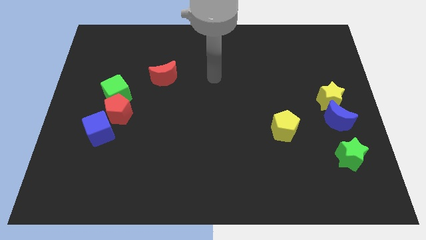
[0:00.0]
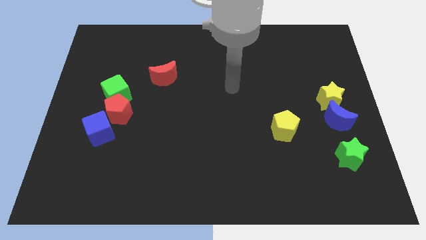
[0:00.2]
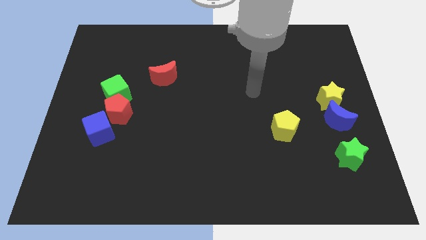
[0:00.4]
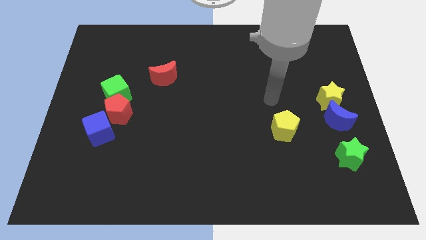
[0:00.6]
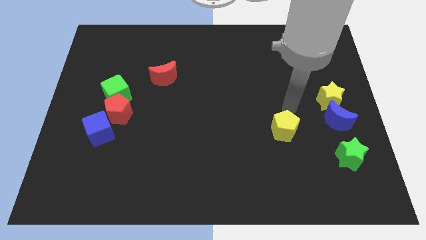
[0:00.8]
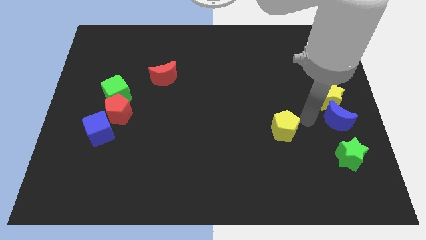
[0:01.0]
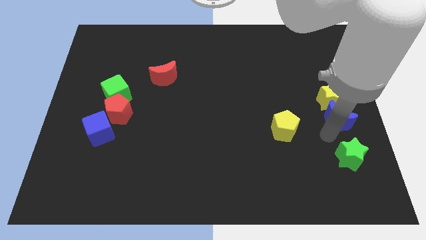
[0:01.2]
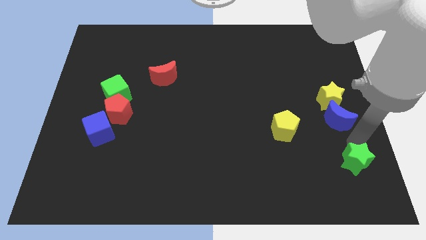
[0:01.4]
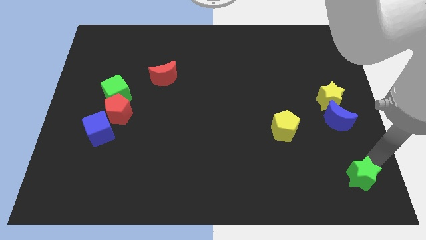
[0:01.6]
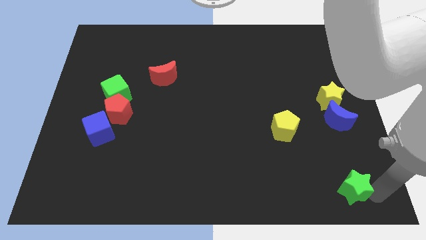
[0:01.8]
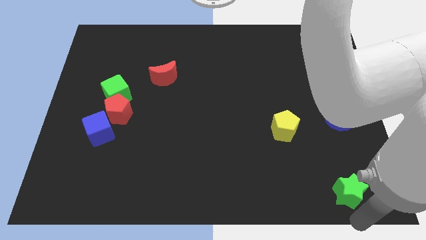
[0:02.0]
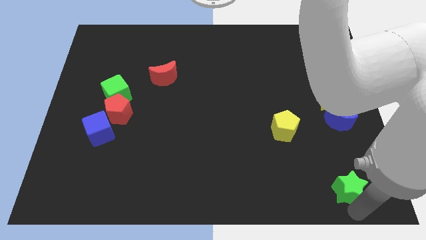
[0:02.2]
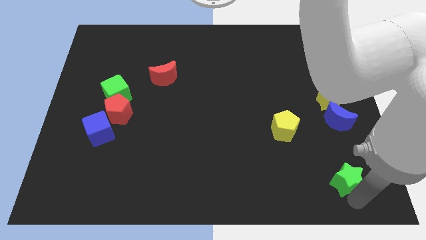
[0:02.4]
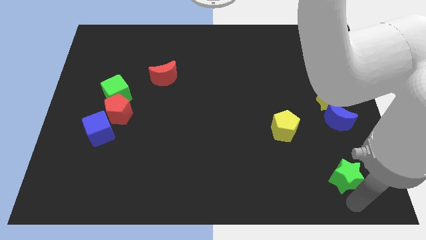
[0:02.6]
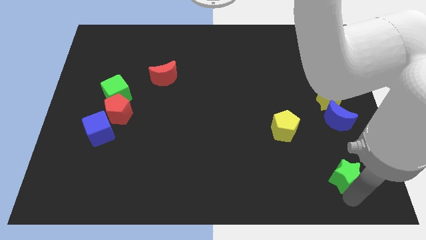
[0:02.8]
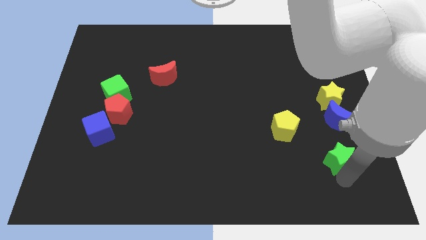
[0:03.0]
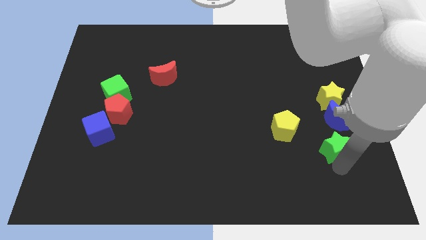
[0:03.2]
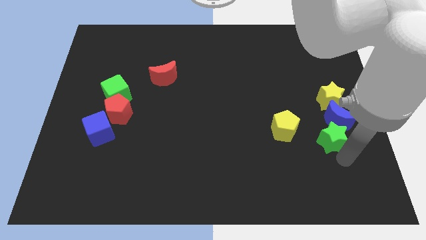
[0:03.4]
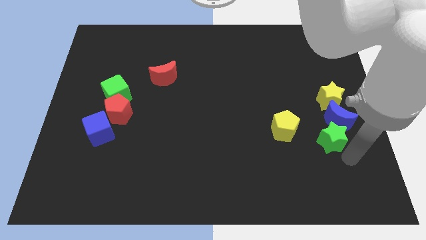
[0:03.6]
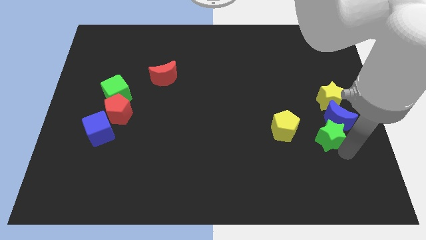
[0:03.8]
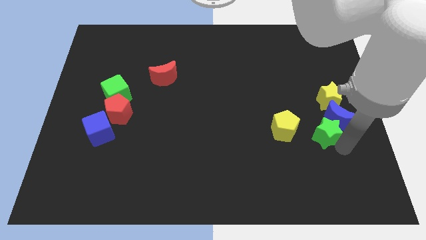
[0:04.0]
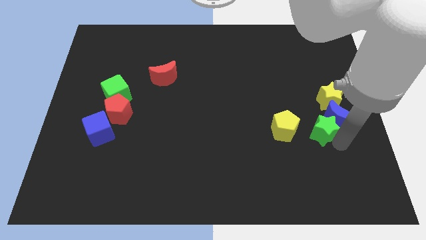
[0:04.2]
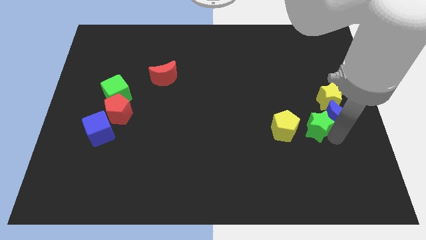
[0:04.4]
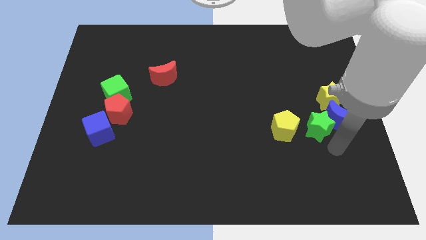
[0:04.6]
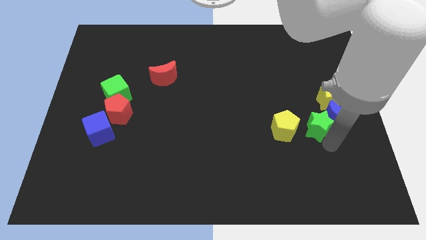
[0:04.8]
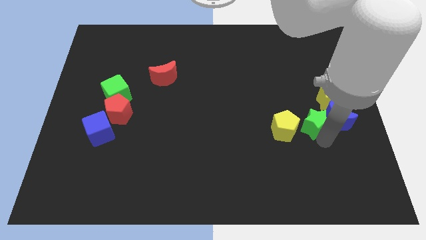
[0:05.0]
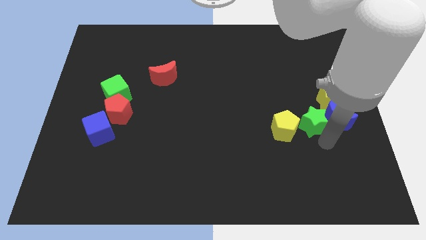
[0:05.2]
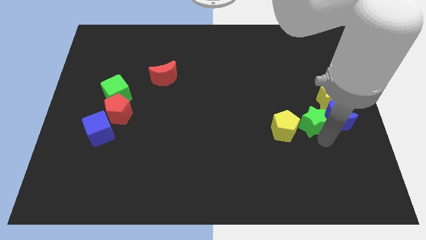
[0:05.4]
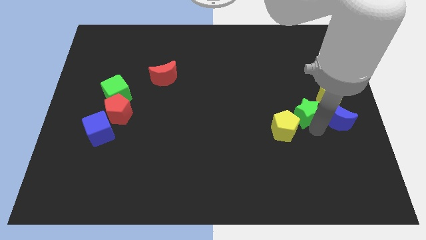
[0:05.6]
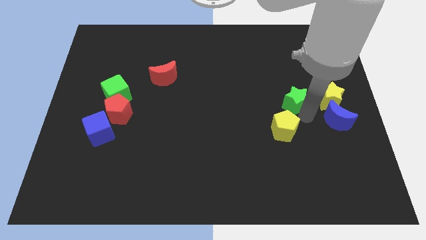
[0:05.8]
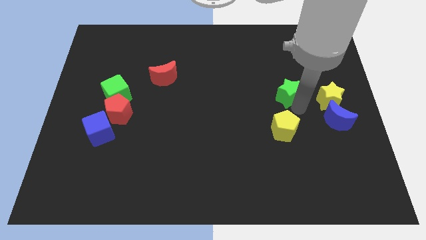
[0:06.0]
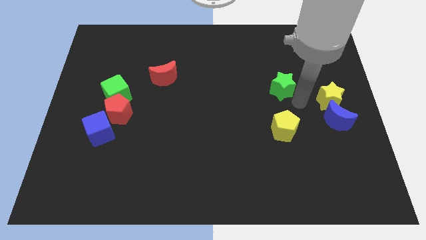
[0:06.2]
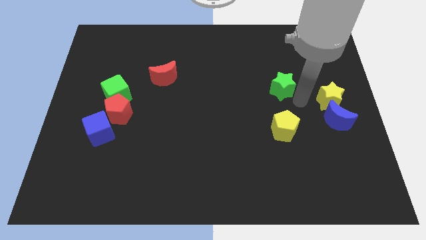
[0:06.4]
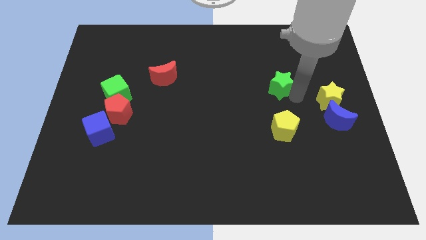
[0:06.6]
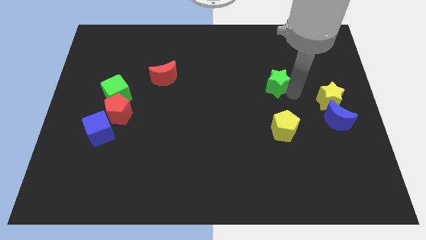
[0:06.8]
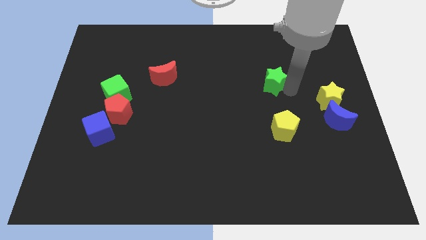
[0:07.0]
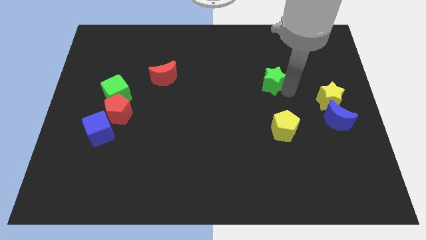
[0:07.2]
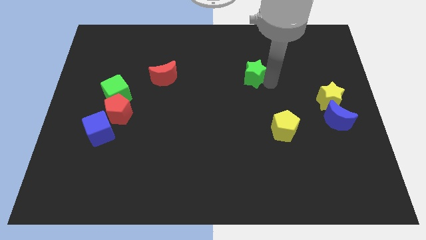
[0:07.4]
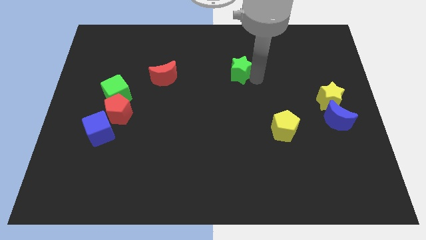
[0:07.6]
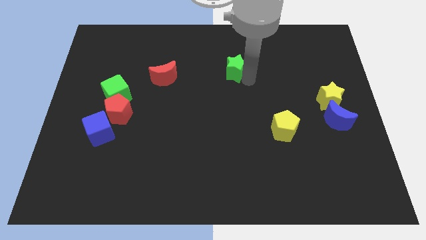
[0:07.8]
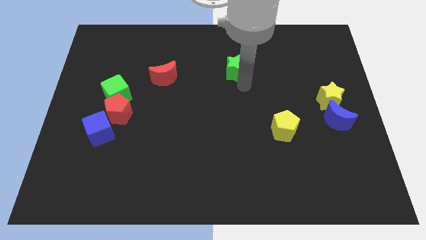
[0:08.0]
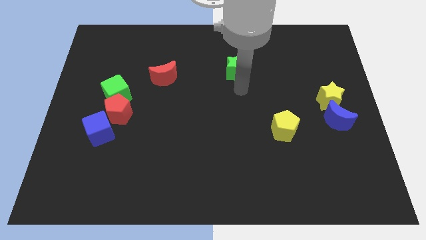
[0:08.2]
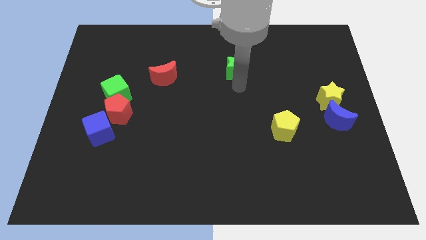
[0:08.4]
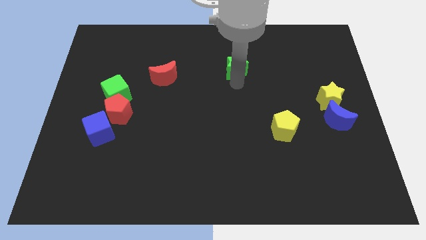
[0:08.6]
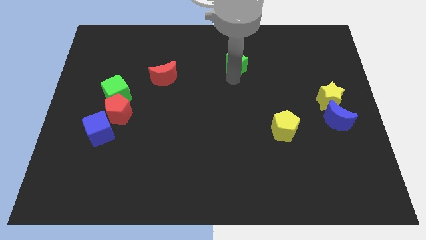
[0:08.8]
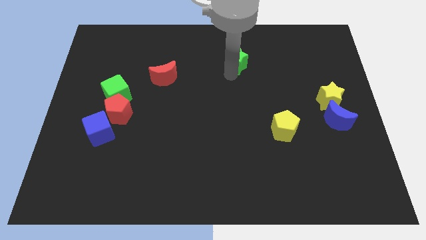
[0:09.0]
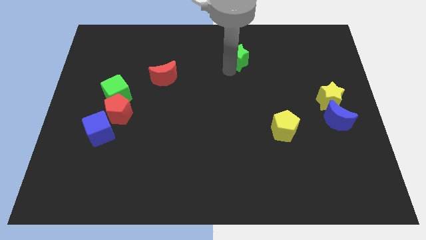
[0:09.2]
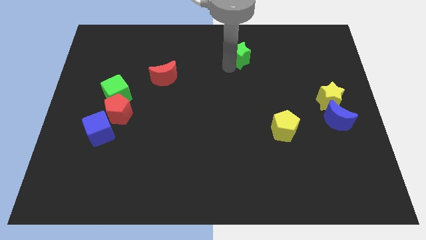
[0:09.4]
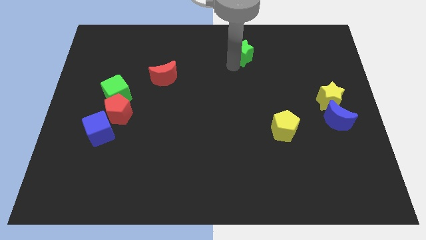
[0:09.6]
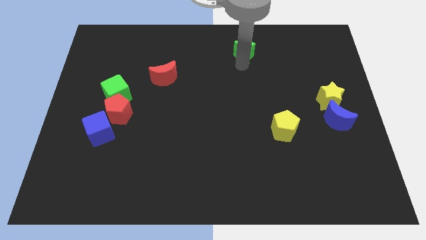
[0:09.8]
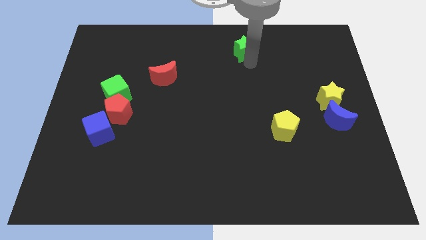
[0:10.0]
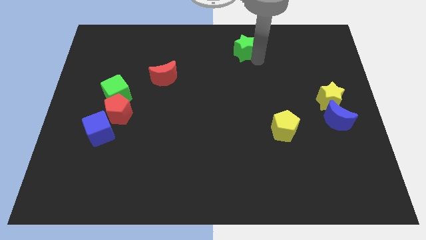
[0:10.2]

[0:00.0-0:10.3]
slide the green star to the towards your base

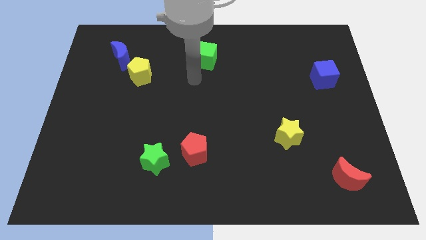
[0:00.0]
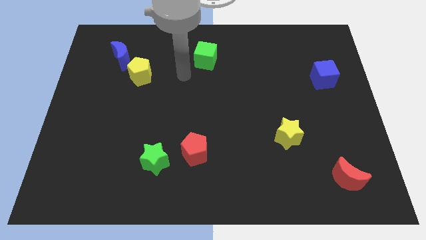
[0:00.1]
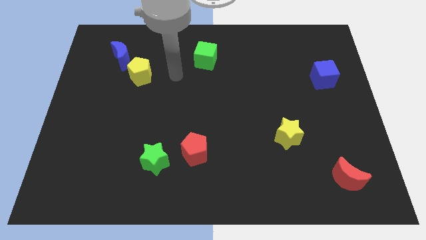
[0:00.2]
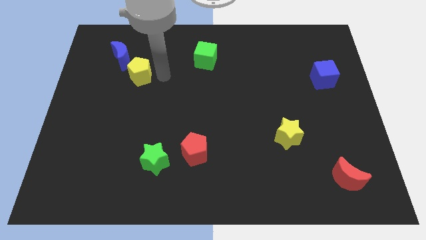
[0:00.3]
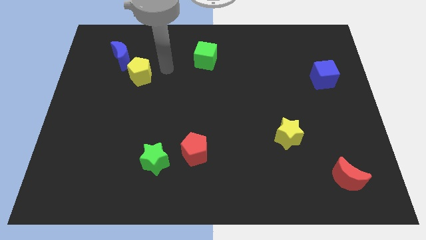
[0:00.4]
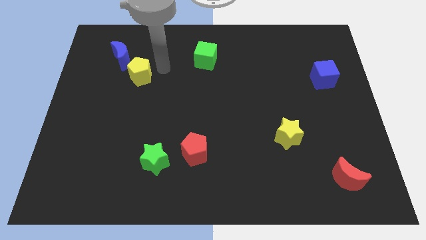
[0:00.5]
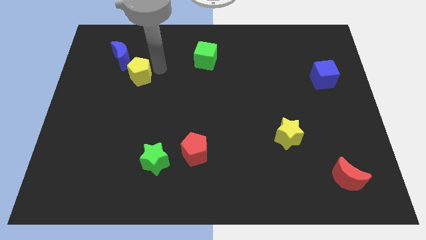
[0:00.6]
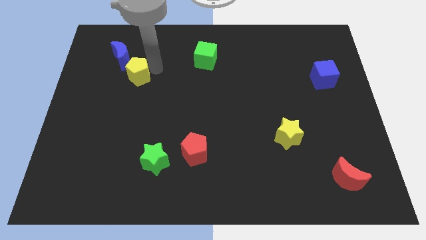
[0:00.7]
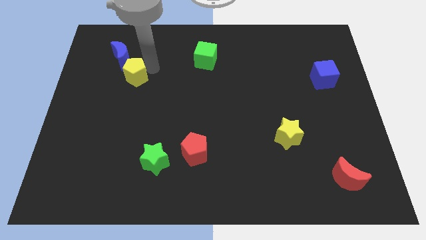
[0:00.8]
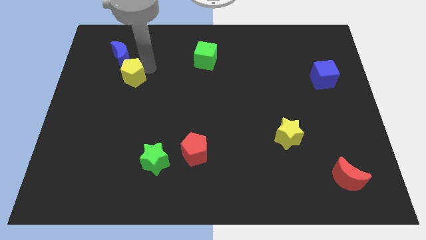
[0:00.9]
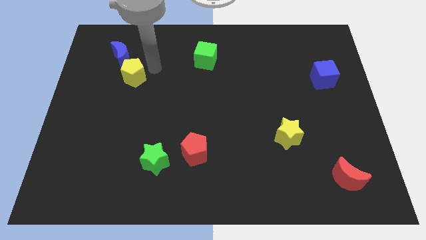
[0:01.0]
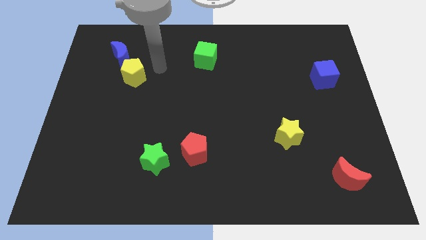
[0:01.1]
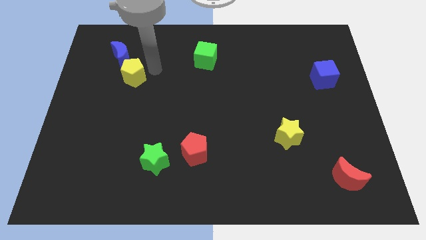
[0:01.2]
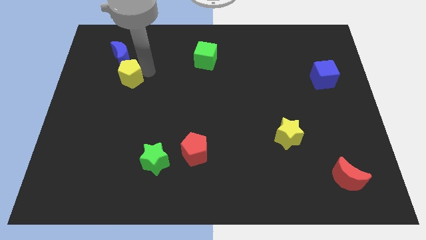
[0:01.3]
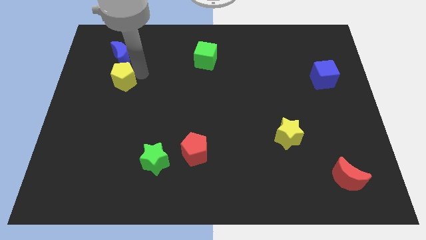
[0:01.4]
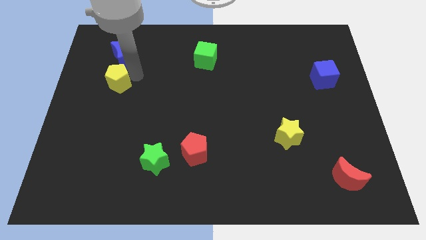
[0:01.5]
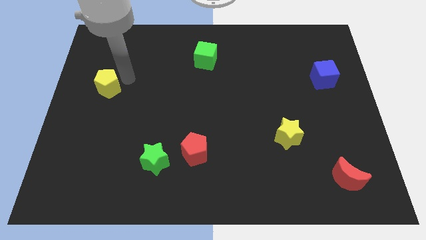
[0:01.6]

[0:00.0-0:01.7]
put the yellow pentagon to the left side of the board
